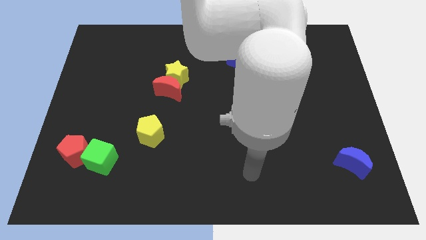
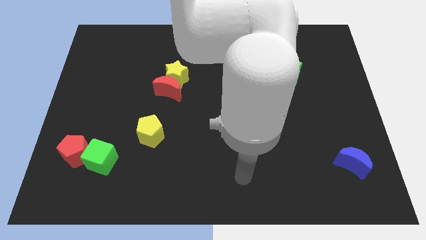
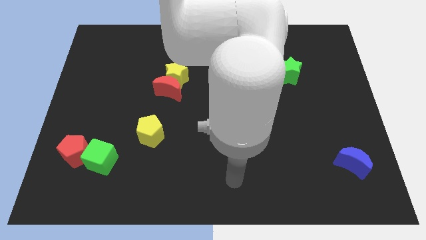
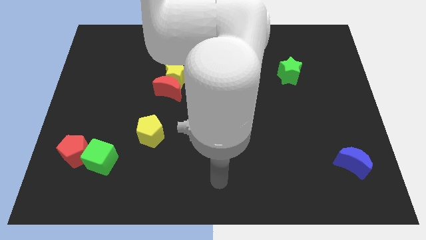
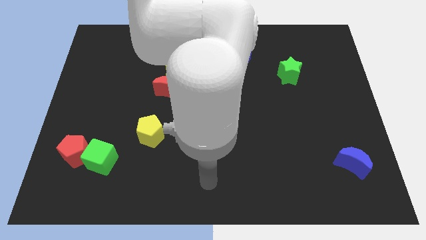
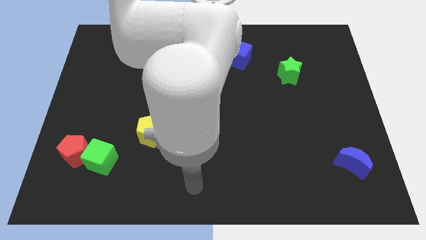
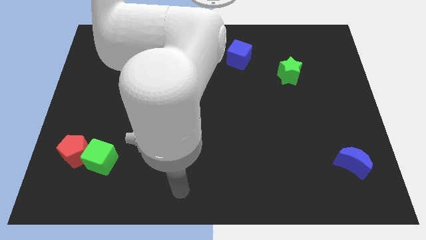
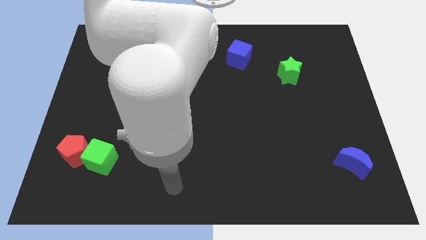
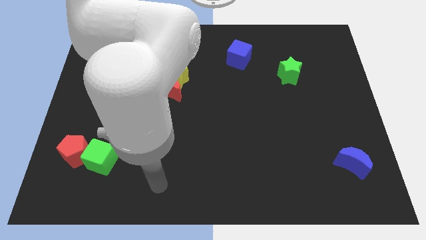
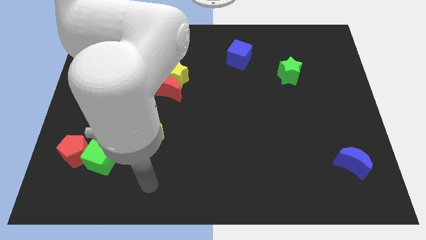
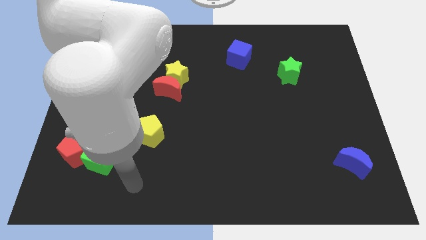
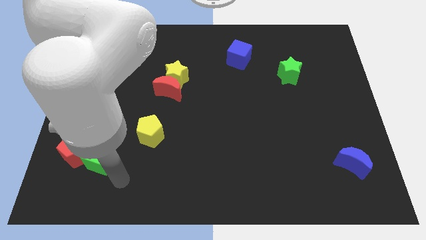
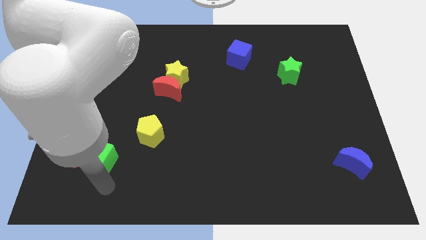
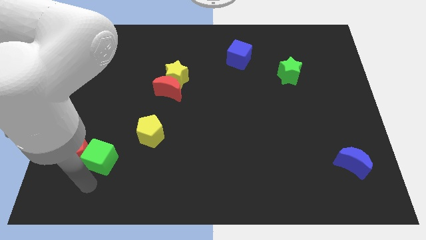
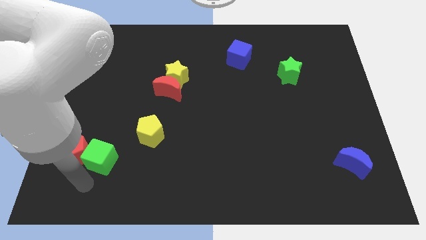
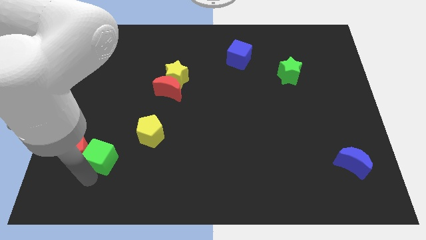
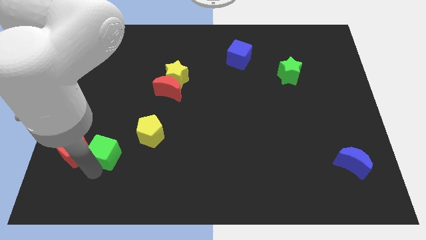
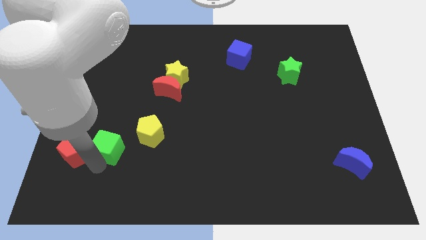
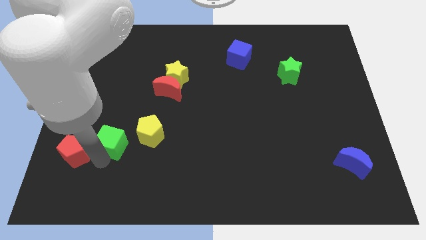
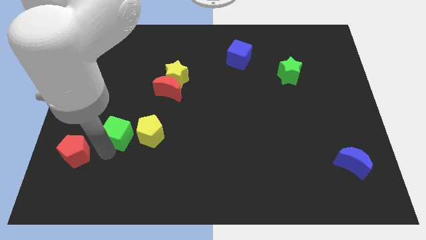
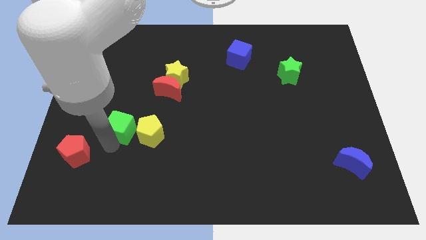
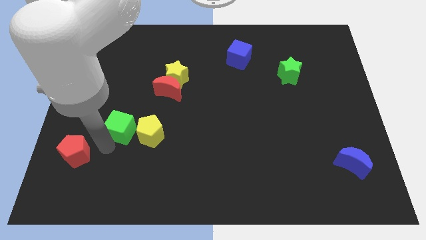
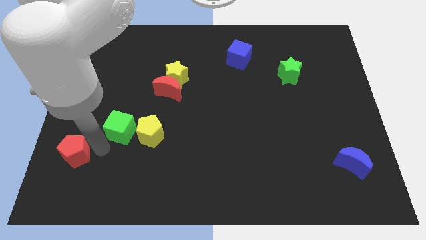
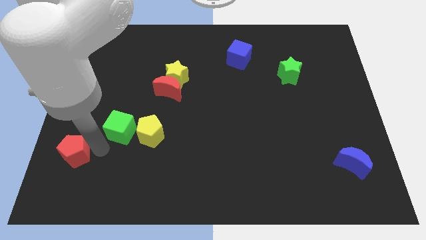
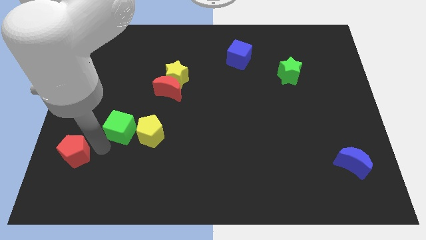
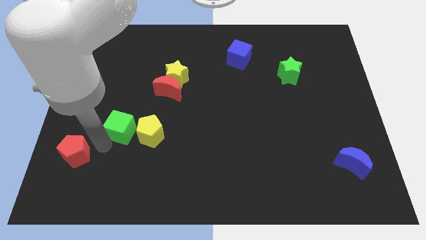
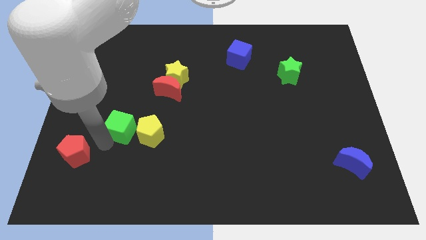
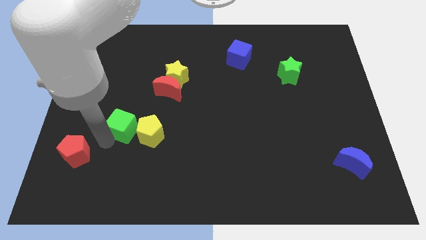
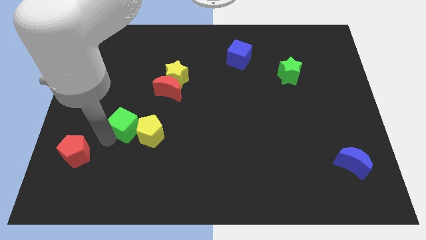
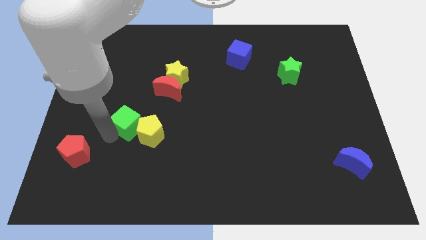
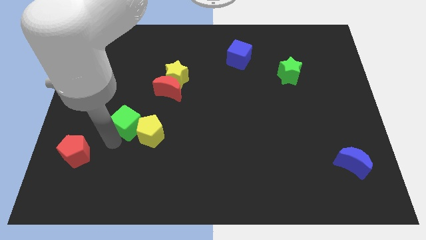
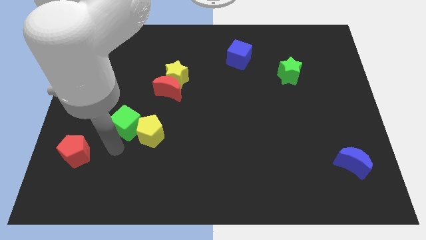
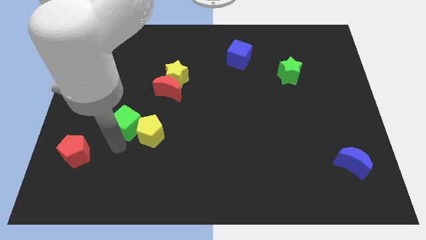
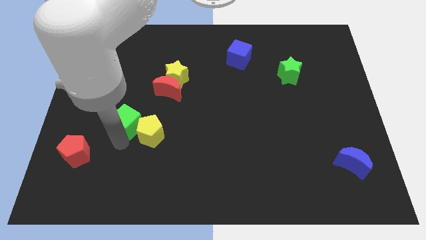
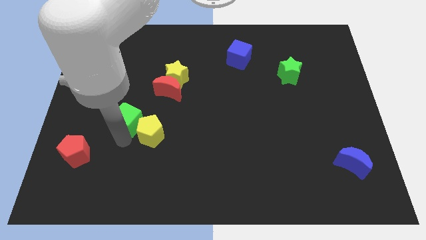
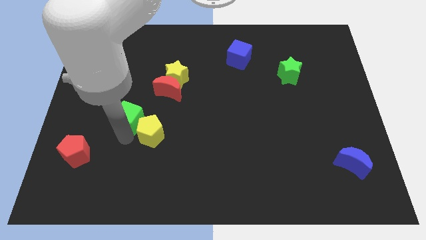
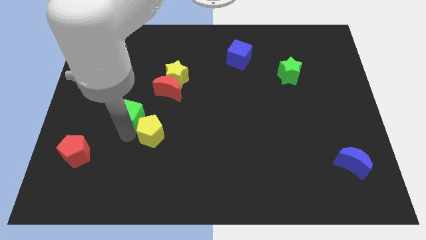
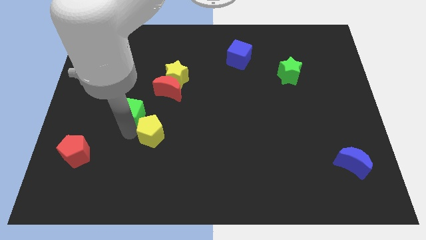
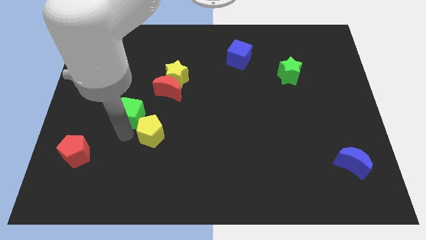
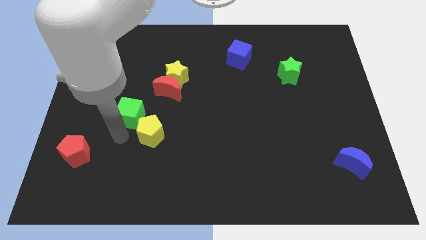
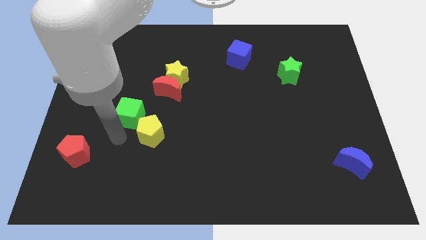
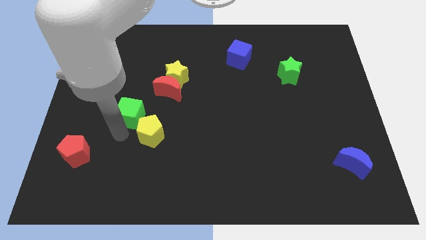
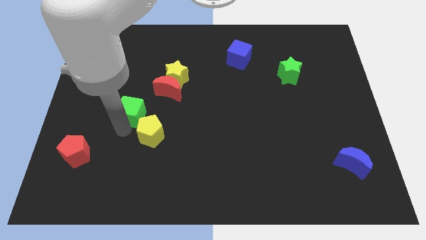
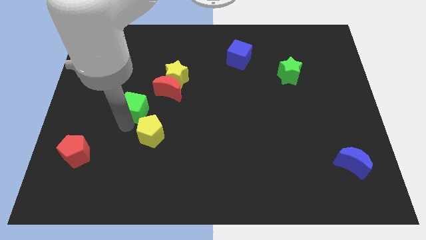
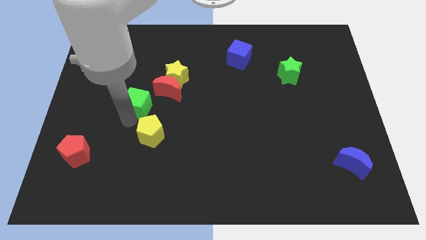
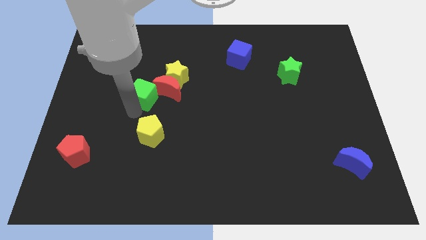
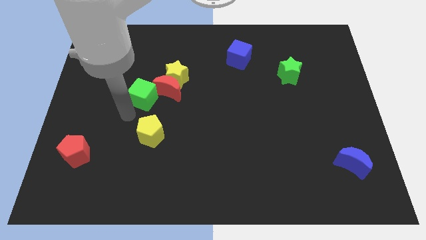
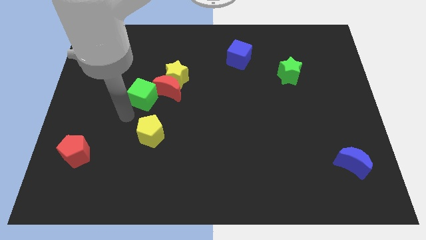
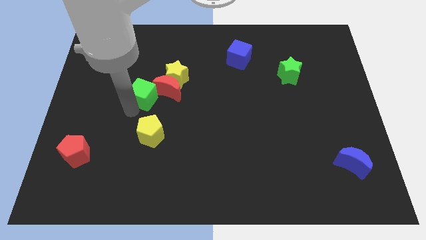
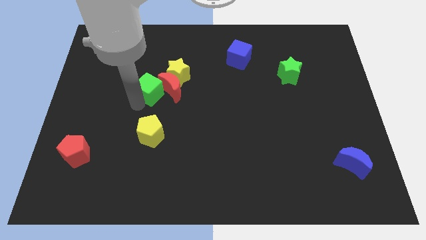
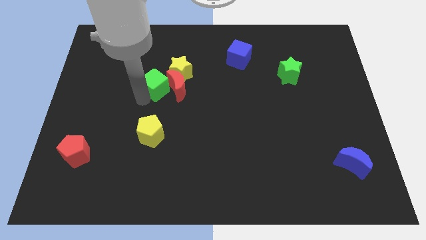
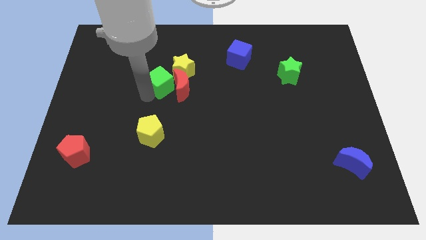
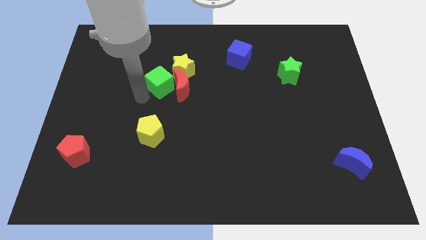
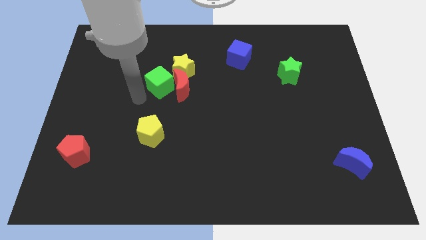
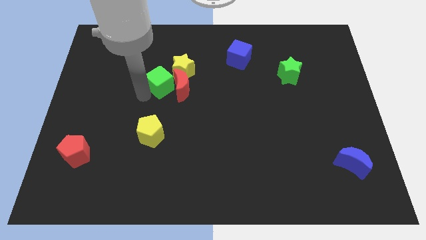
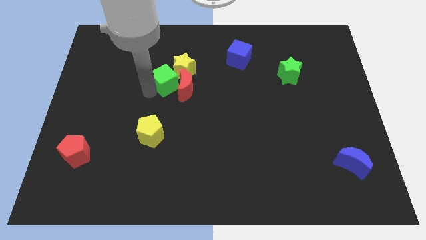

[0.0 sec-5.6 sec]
push the green cube to the yellow star

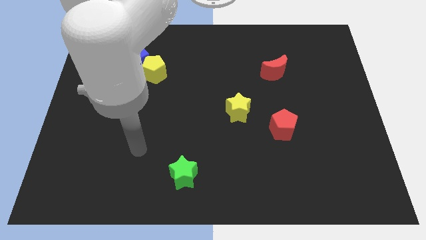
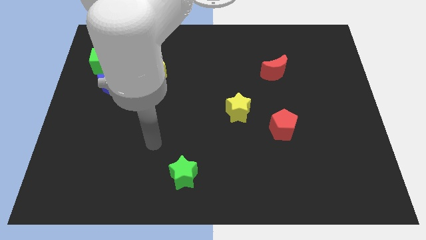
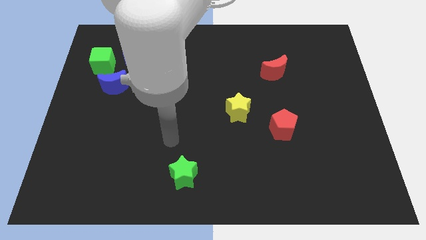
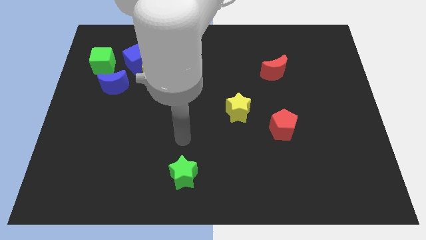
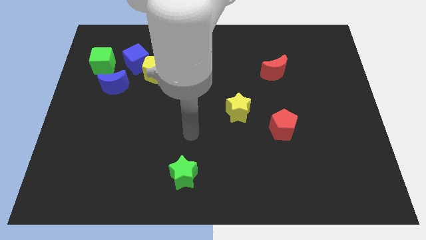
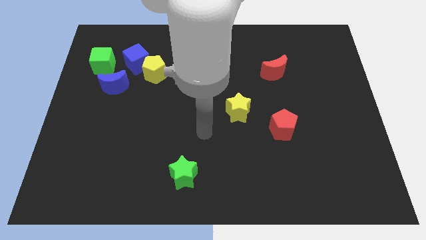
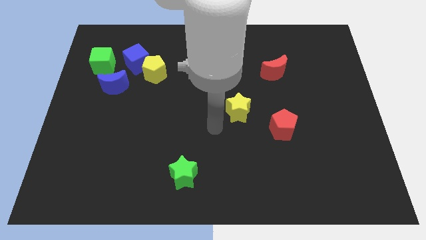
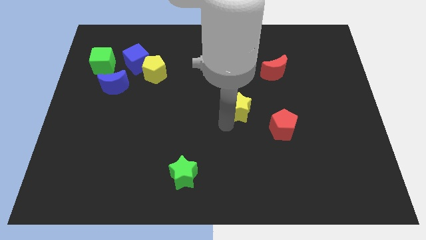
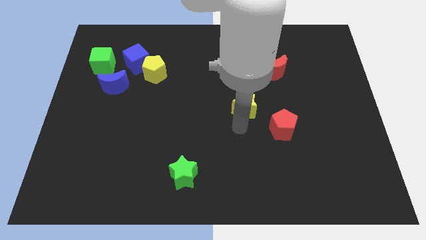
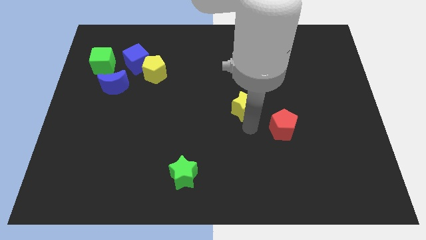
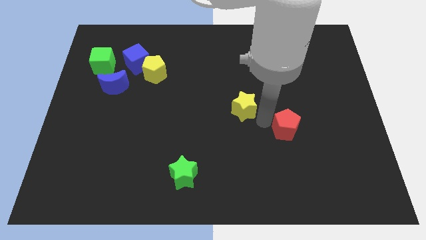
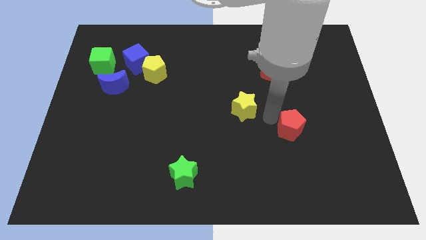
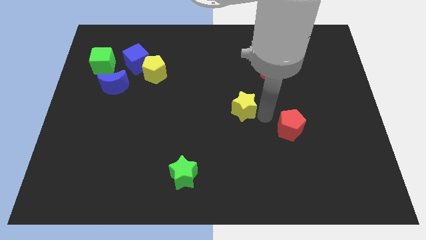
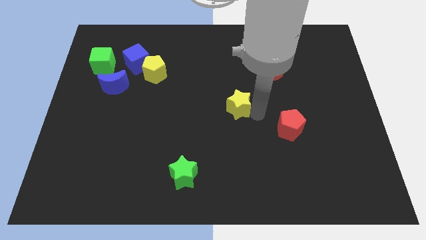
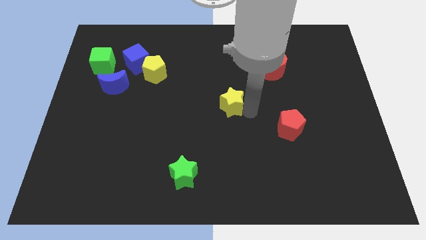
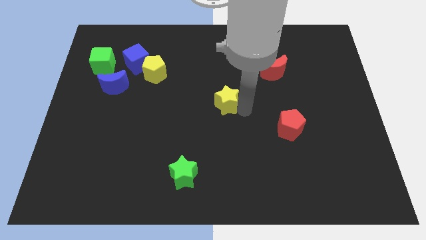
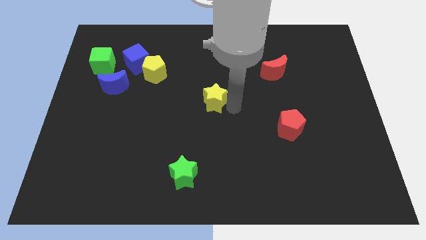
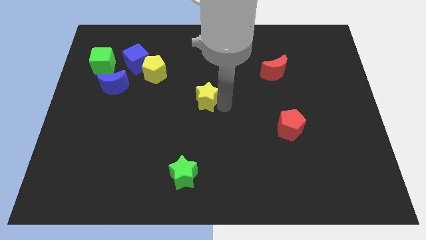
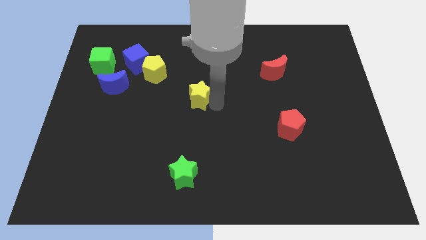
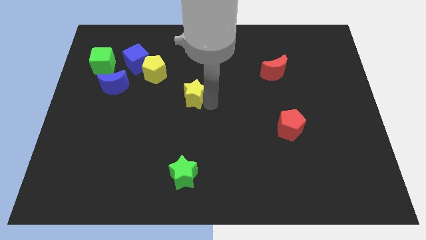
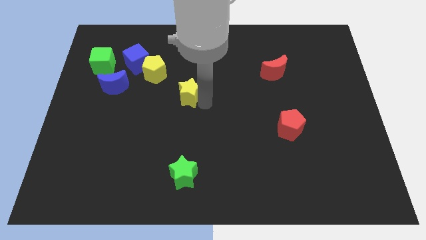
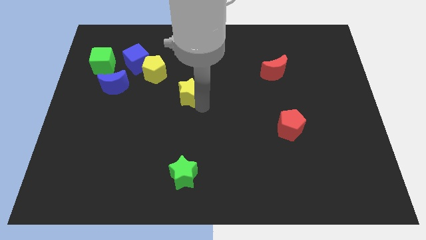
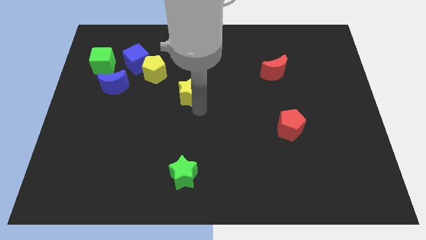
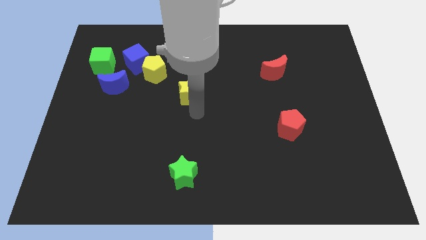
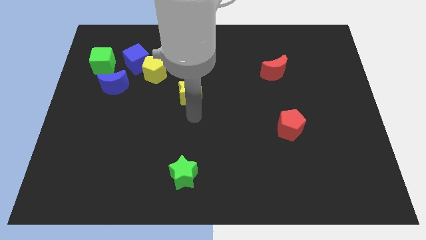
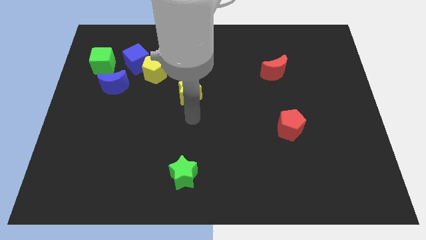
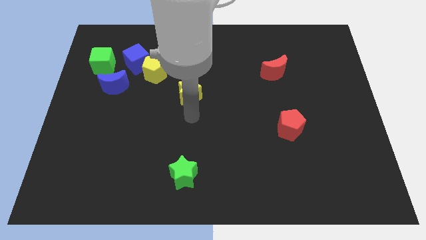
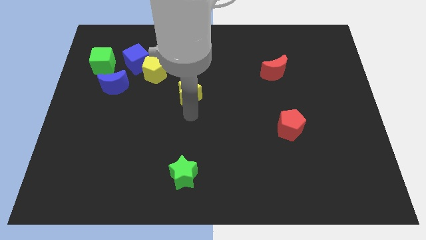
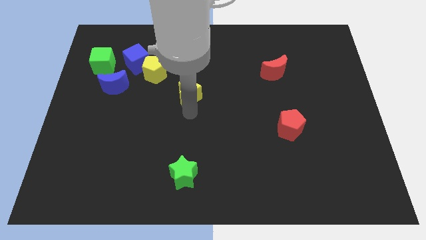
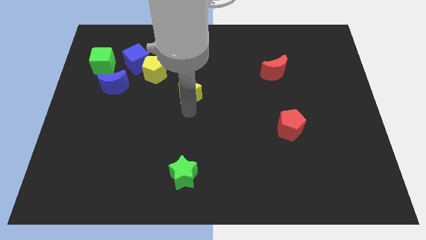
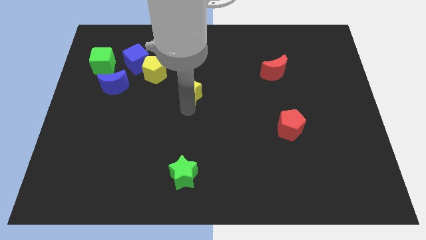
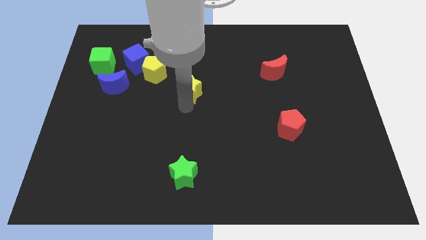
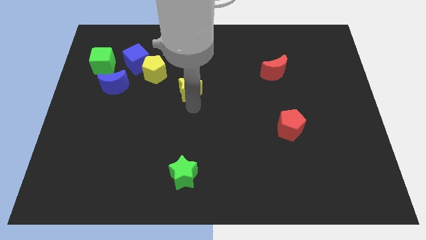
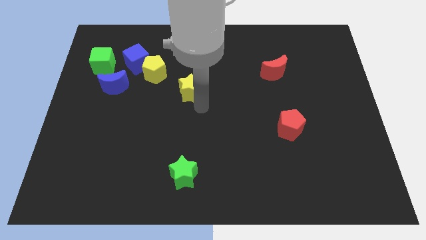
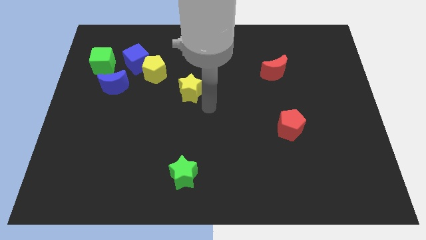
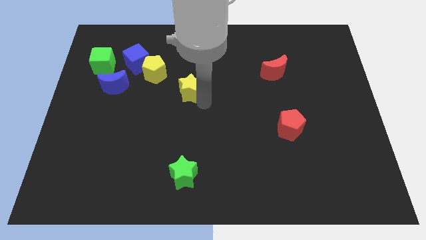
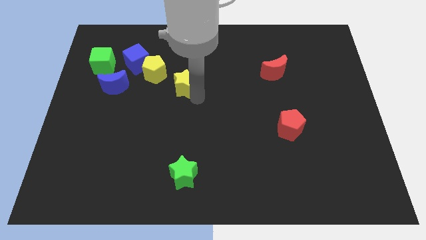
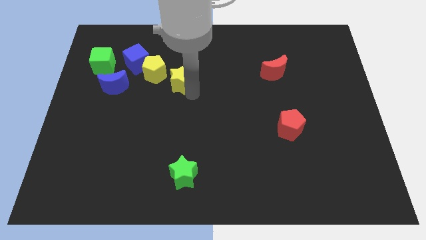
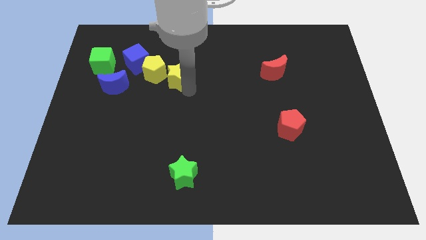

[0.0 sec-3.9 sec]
put the yellow star close to the yellow pentagon
